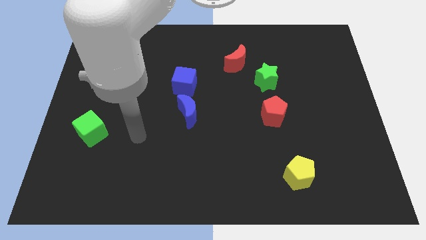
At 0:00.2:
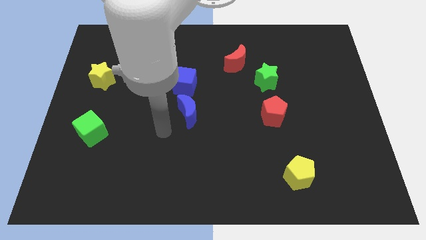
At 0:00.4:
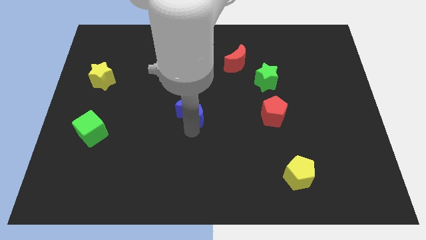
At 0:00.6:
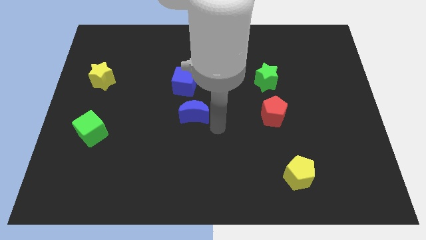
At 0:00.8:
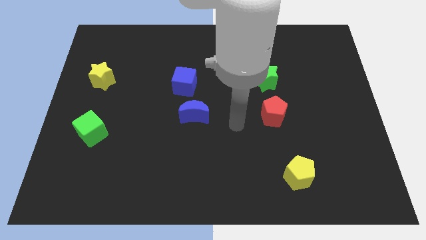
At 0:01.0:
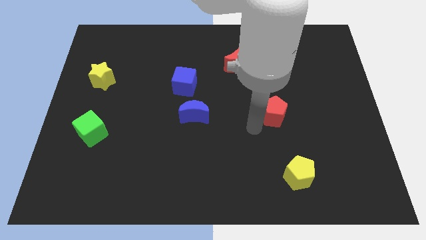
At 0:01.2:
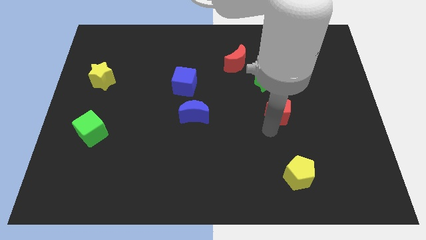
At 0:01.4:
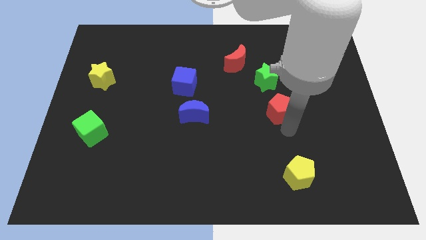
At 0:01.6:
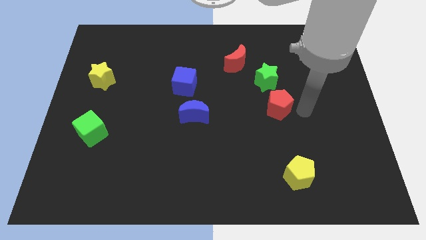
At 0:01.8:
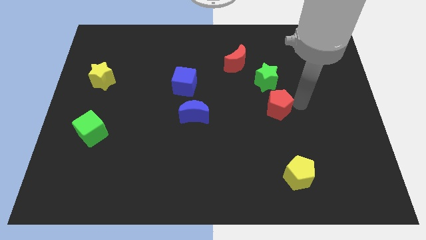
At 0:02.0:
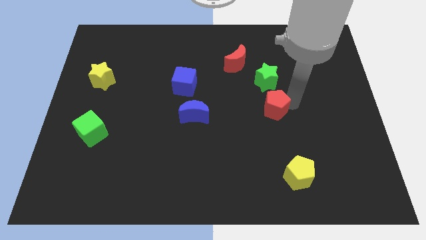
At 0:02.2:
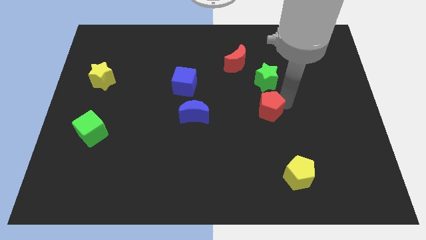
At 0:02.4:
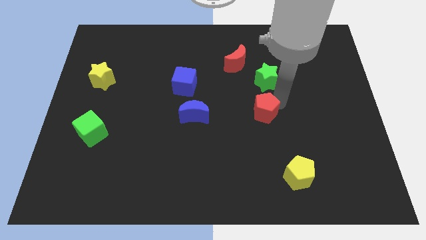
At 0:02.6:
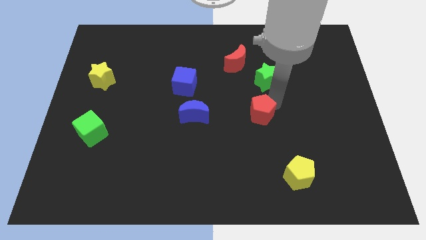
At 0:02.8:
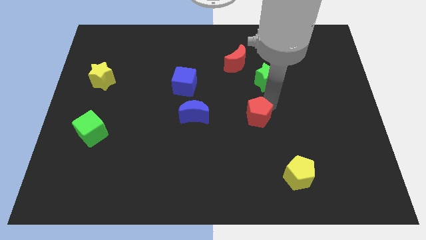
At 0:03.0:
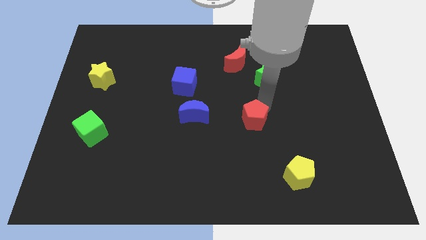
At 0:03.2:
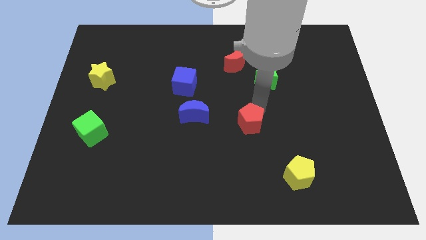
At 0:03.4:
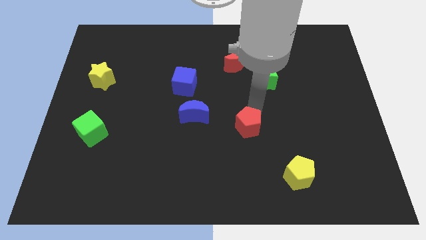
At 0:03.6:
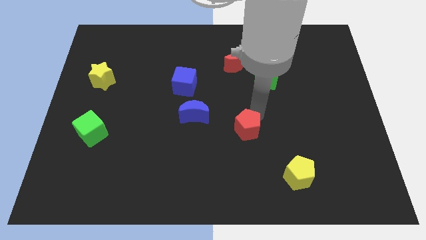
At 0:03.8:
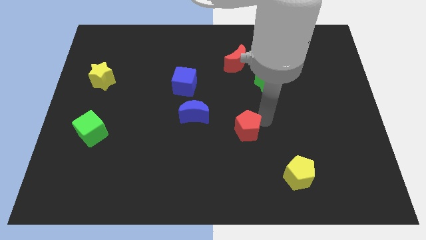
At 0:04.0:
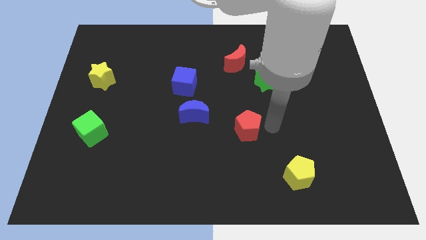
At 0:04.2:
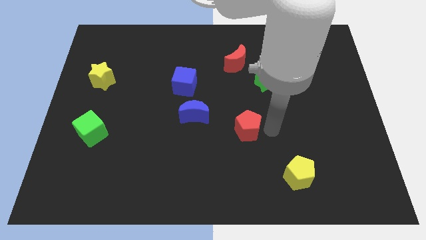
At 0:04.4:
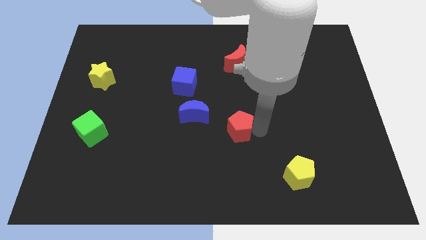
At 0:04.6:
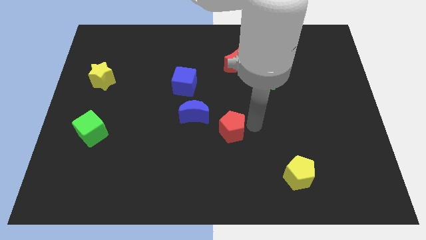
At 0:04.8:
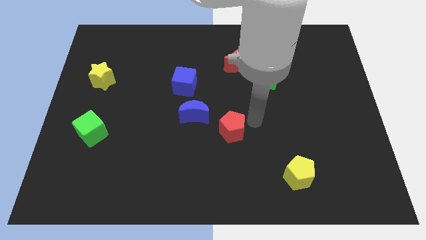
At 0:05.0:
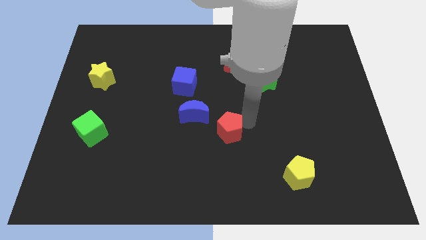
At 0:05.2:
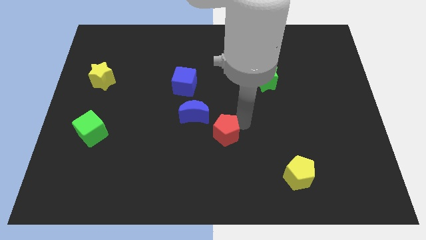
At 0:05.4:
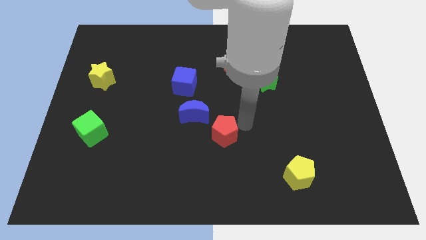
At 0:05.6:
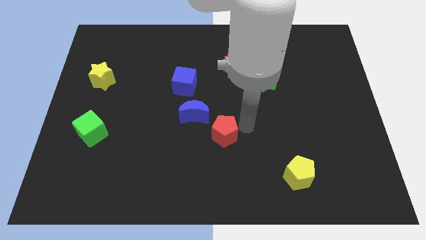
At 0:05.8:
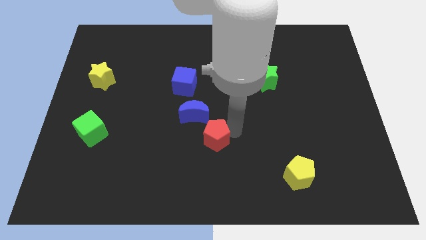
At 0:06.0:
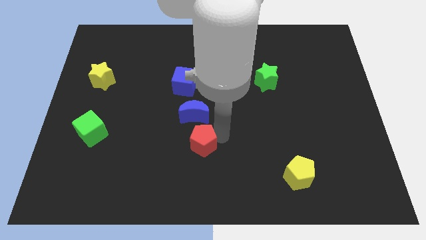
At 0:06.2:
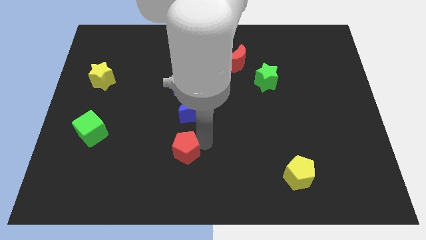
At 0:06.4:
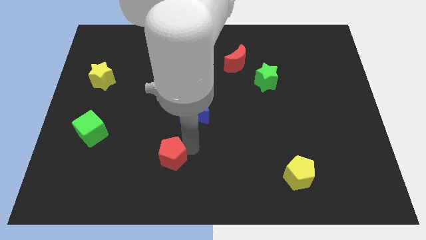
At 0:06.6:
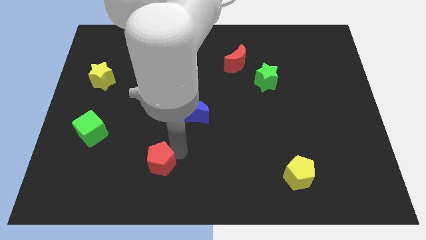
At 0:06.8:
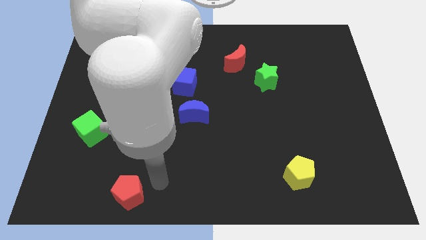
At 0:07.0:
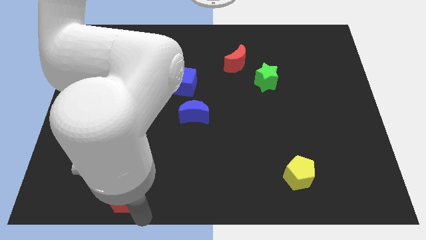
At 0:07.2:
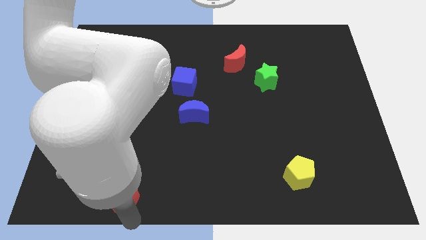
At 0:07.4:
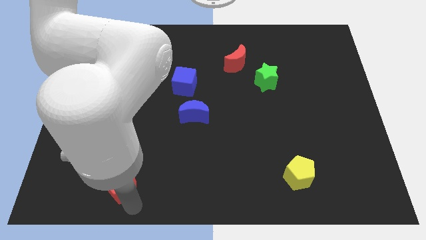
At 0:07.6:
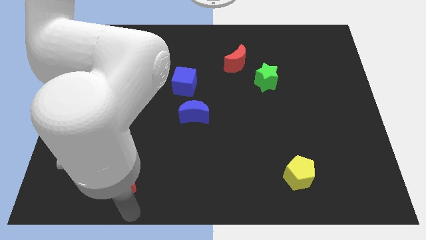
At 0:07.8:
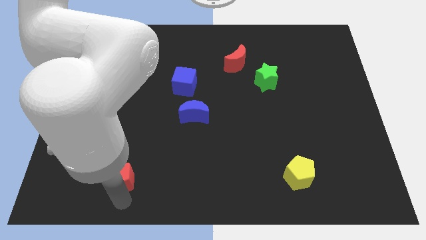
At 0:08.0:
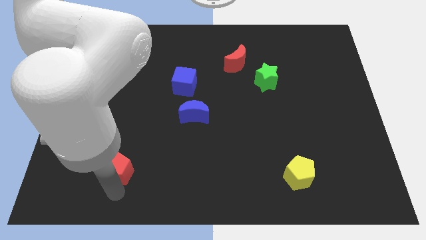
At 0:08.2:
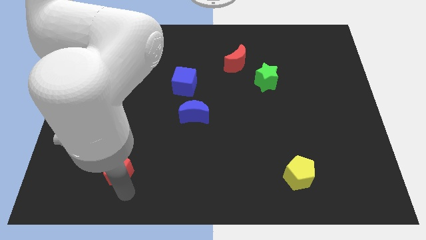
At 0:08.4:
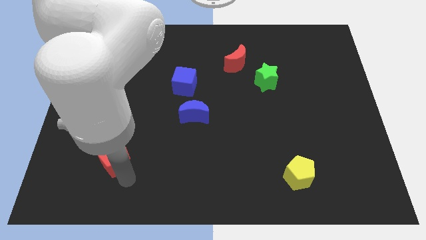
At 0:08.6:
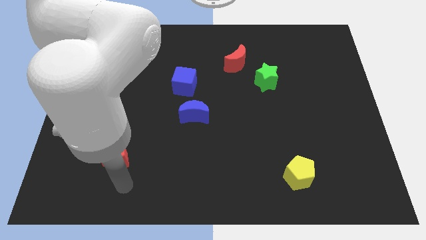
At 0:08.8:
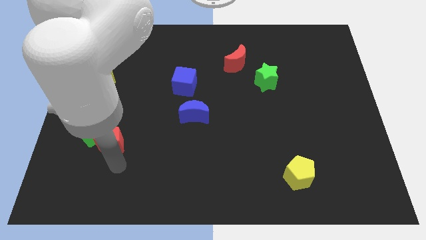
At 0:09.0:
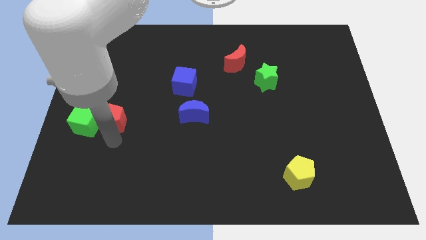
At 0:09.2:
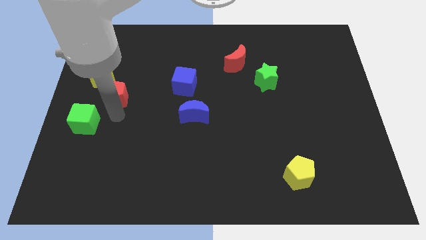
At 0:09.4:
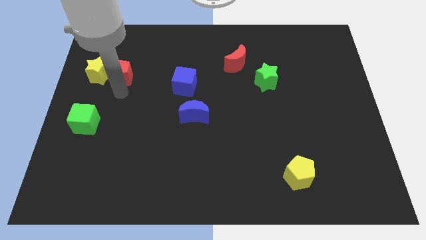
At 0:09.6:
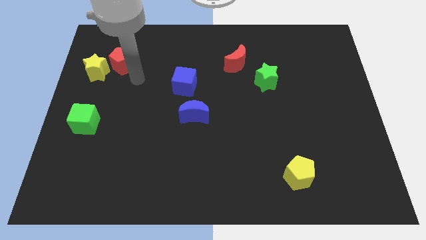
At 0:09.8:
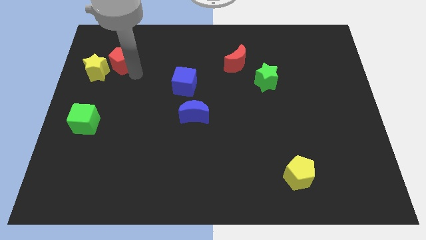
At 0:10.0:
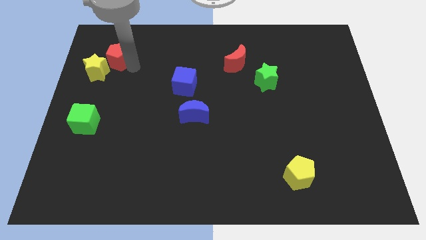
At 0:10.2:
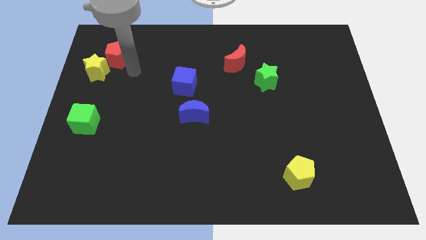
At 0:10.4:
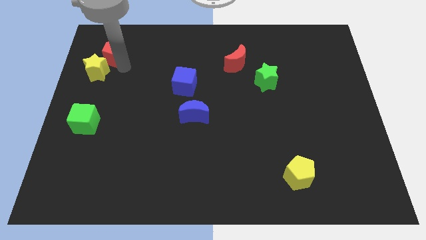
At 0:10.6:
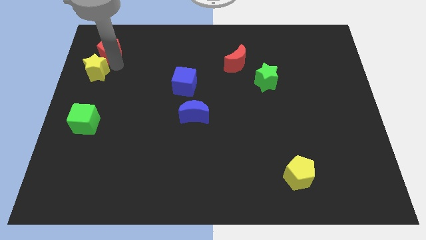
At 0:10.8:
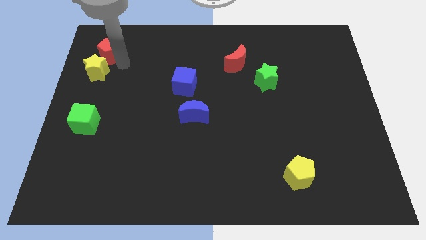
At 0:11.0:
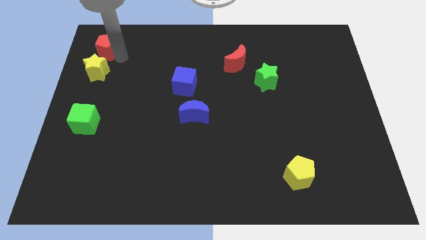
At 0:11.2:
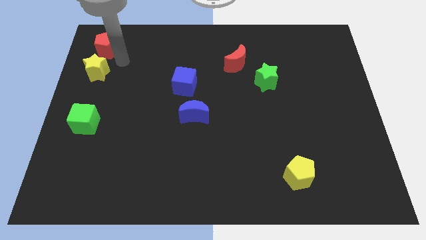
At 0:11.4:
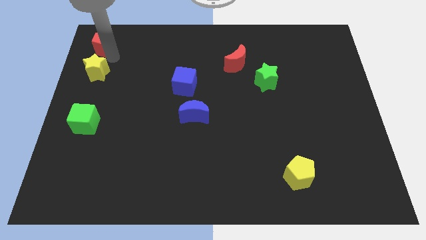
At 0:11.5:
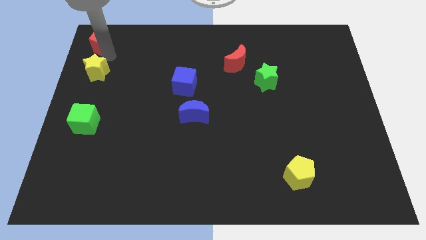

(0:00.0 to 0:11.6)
put the red pentagon to the top left

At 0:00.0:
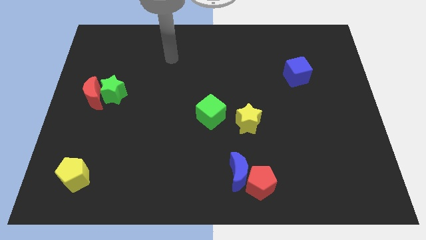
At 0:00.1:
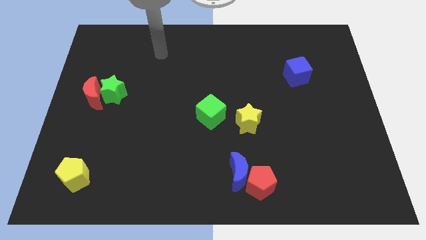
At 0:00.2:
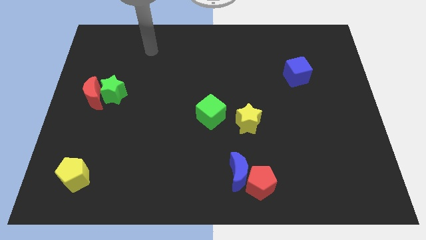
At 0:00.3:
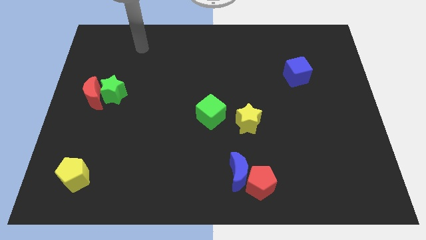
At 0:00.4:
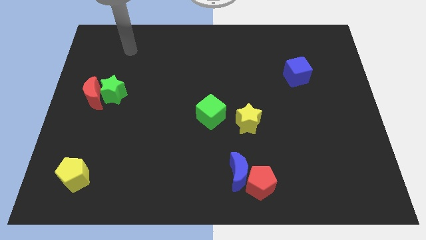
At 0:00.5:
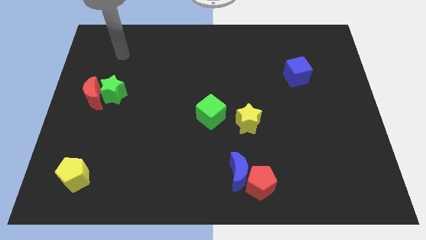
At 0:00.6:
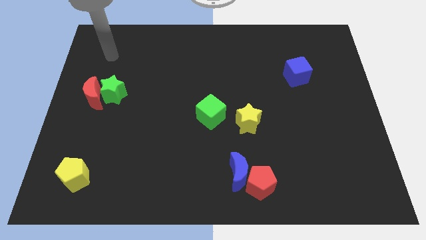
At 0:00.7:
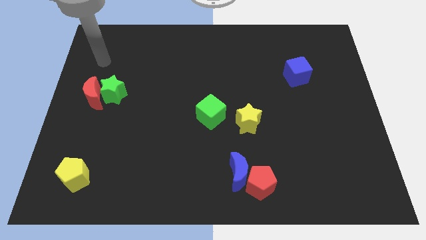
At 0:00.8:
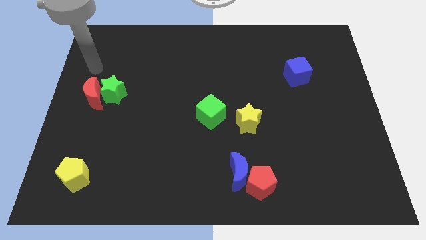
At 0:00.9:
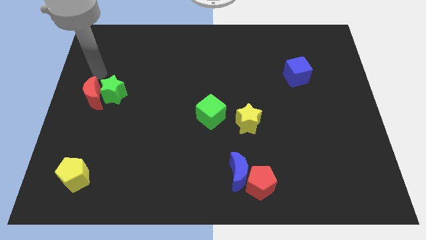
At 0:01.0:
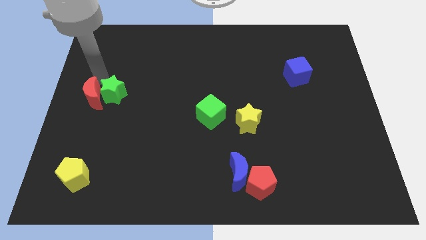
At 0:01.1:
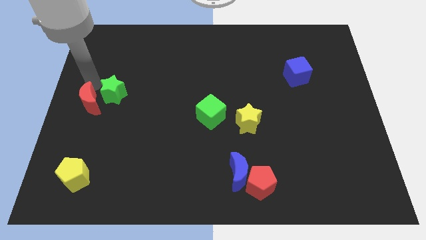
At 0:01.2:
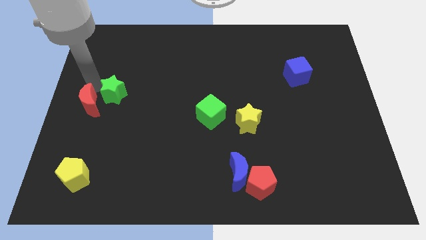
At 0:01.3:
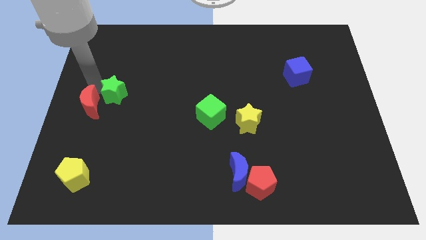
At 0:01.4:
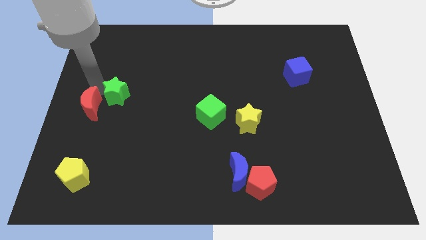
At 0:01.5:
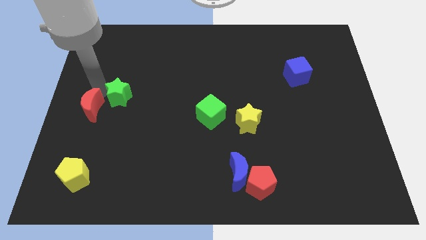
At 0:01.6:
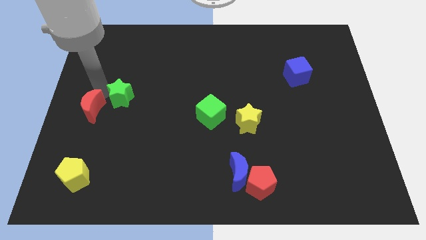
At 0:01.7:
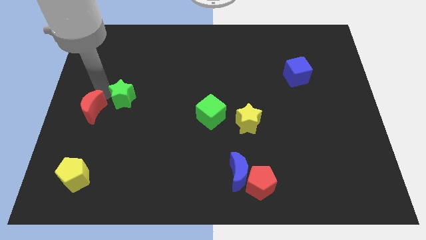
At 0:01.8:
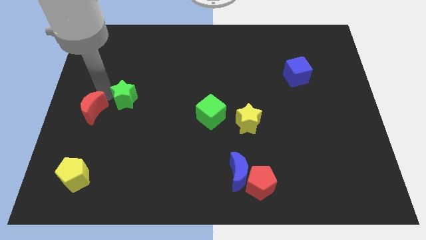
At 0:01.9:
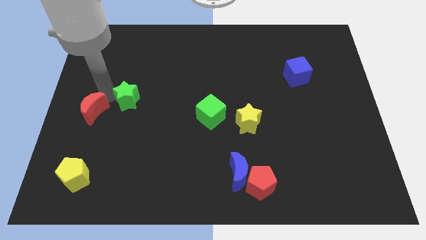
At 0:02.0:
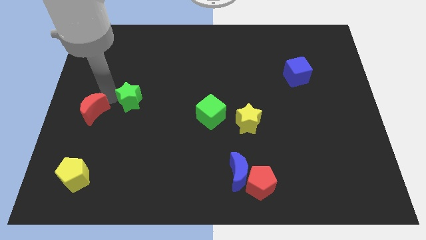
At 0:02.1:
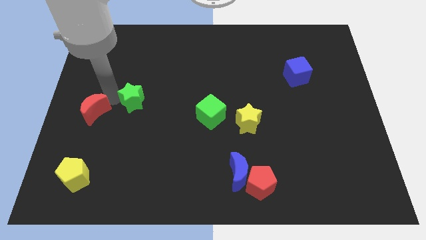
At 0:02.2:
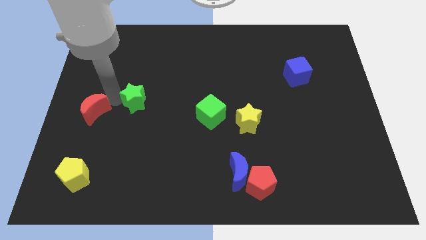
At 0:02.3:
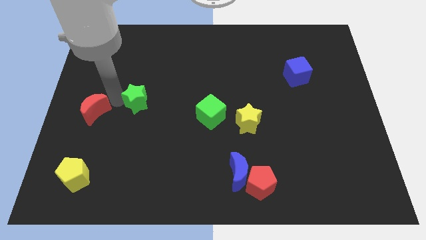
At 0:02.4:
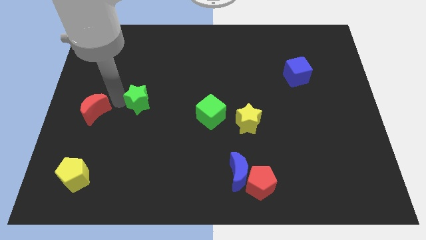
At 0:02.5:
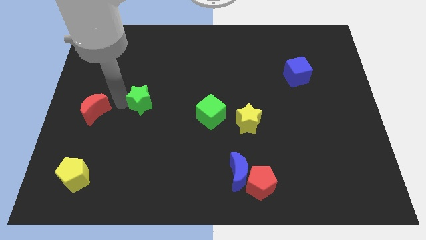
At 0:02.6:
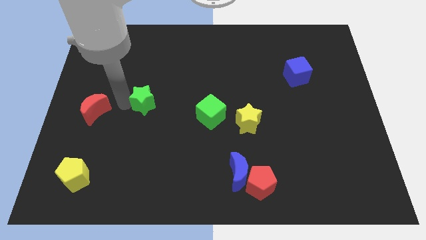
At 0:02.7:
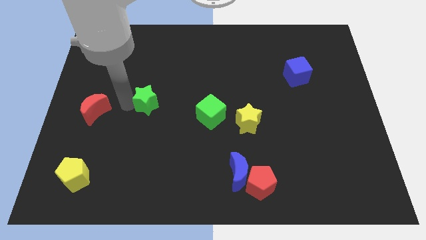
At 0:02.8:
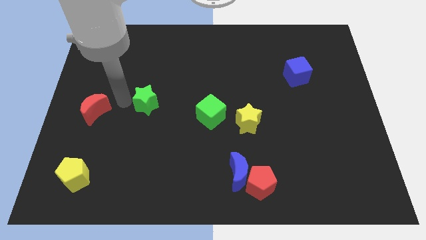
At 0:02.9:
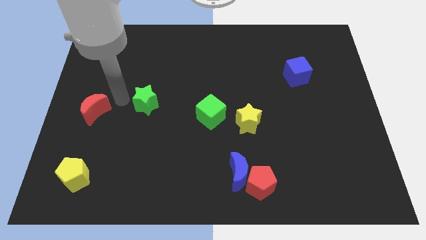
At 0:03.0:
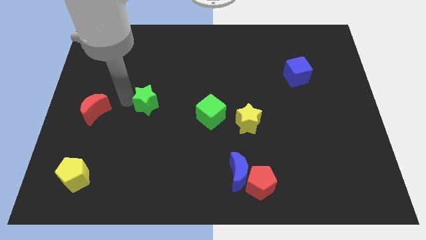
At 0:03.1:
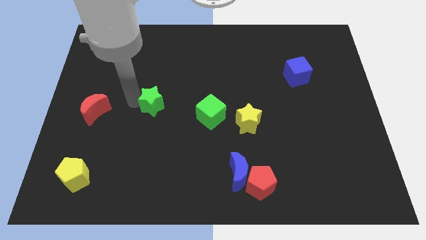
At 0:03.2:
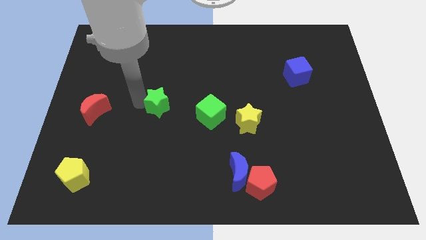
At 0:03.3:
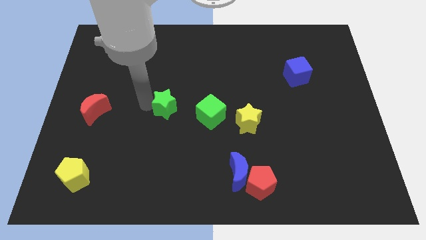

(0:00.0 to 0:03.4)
move the green star to the center of the board
